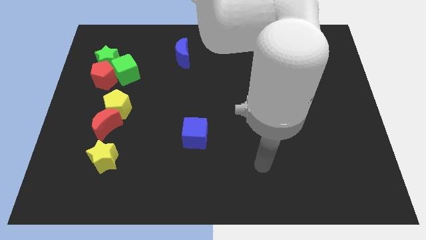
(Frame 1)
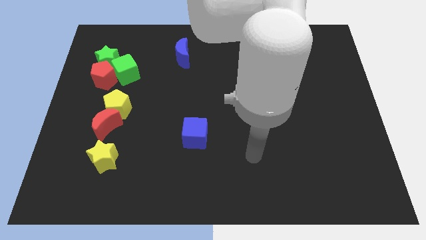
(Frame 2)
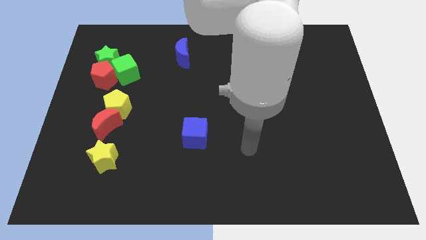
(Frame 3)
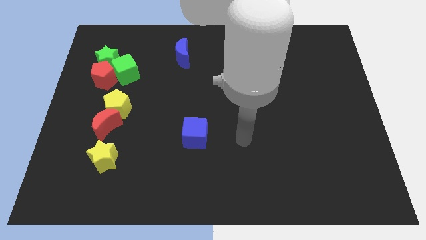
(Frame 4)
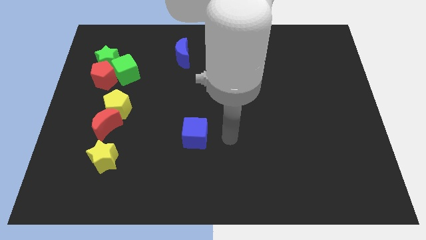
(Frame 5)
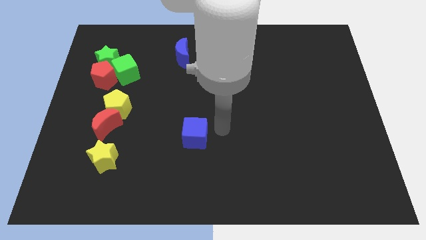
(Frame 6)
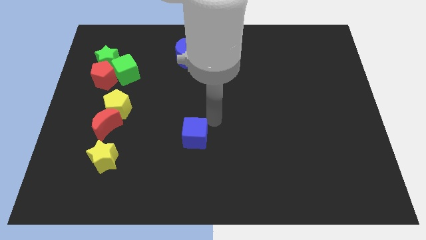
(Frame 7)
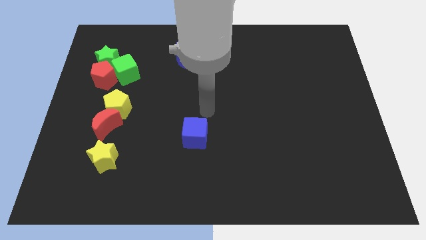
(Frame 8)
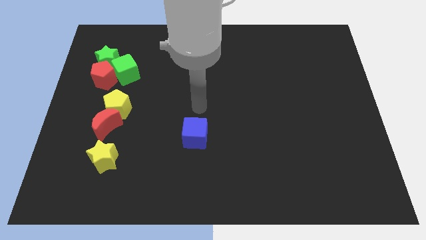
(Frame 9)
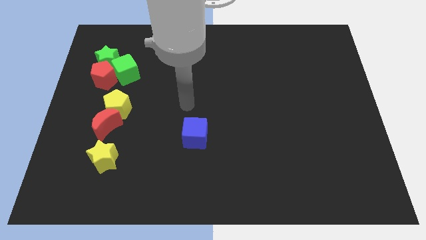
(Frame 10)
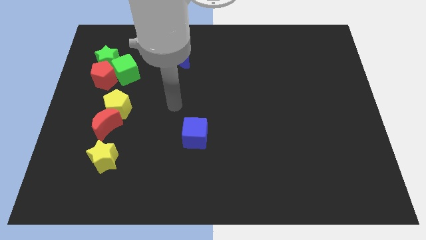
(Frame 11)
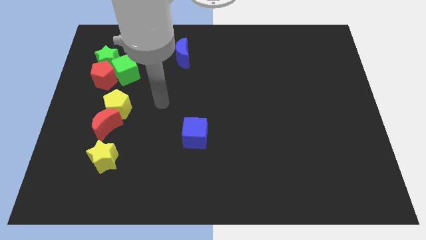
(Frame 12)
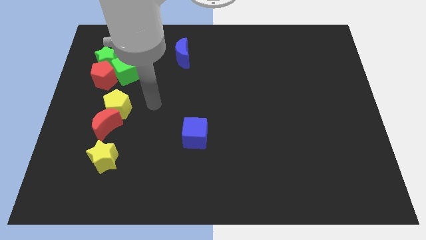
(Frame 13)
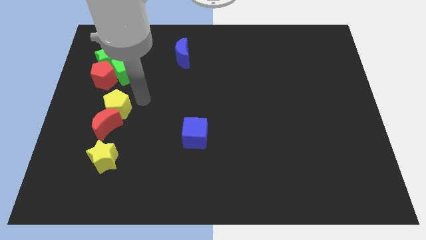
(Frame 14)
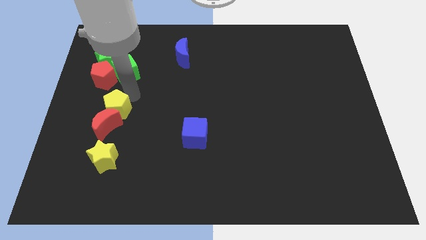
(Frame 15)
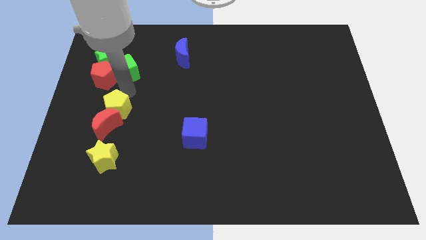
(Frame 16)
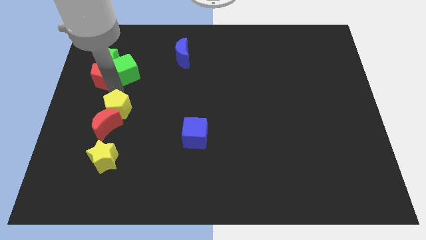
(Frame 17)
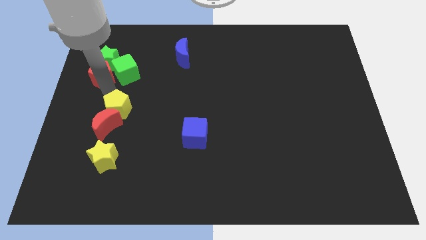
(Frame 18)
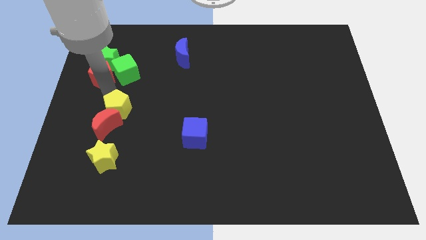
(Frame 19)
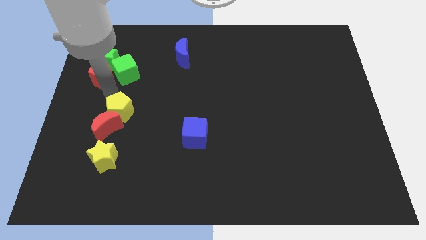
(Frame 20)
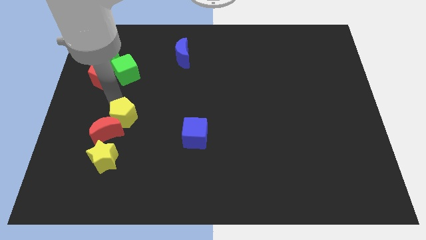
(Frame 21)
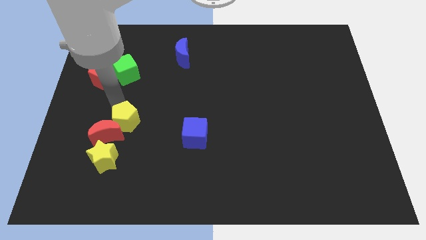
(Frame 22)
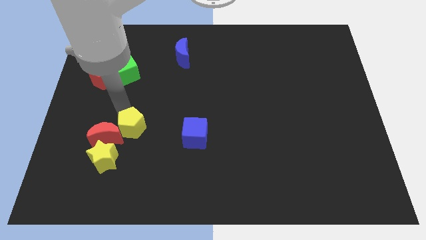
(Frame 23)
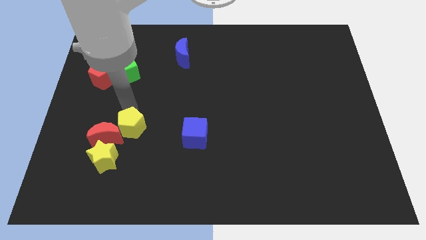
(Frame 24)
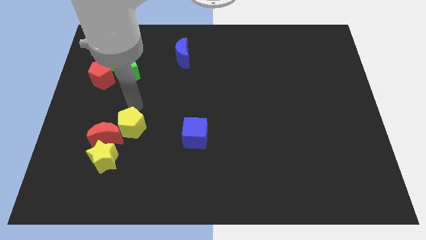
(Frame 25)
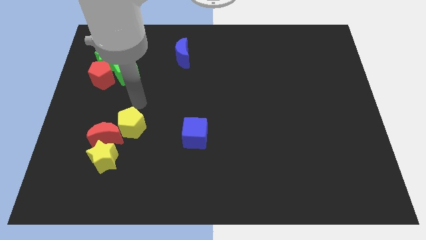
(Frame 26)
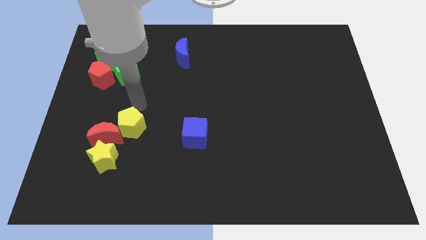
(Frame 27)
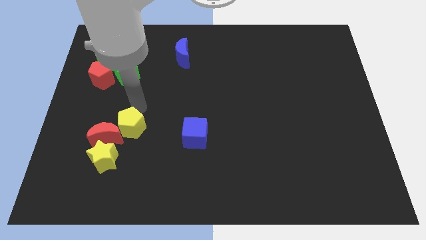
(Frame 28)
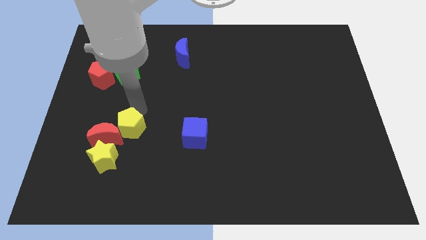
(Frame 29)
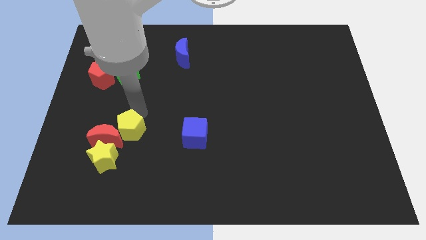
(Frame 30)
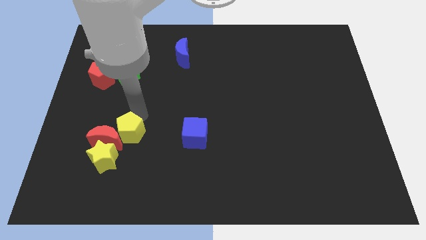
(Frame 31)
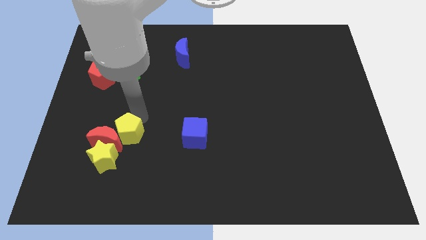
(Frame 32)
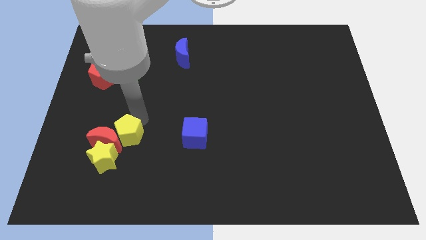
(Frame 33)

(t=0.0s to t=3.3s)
move the yellow pentagon downwards a little

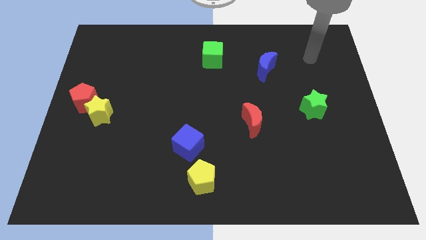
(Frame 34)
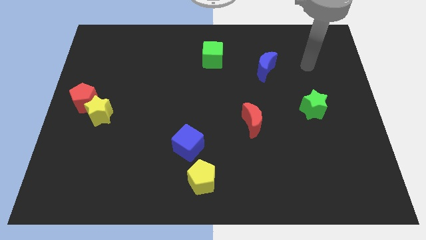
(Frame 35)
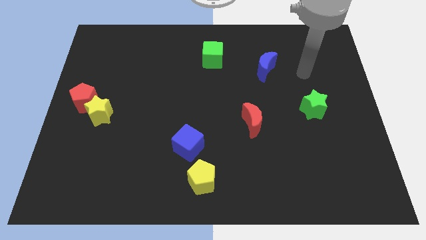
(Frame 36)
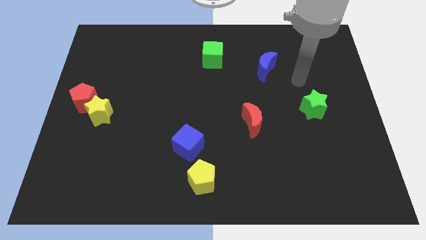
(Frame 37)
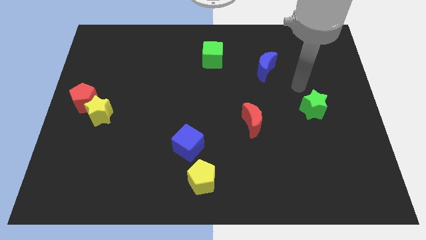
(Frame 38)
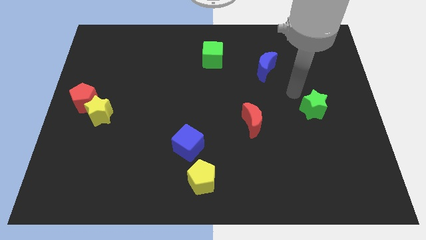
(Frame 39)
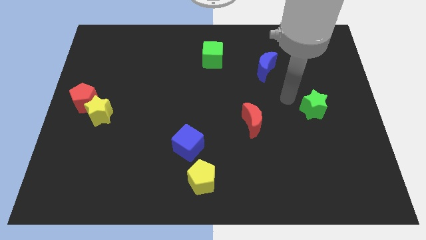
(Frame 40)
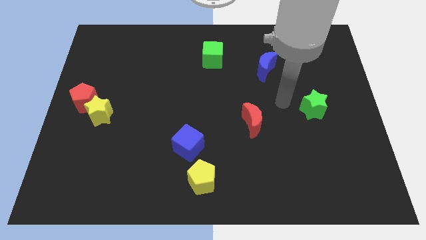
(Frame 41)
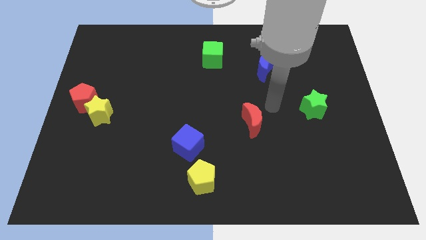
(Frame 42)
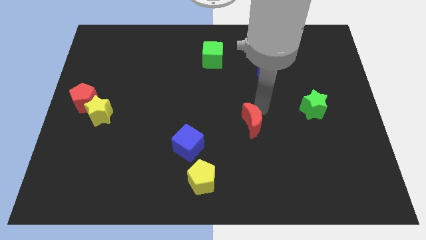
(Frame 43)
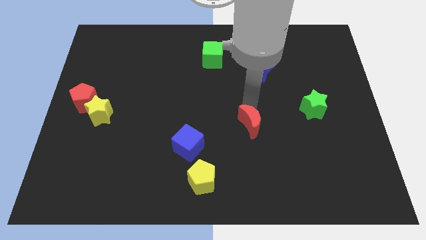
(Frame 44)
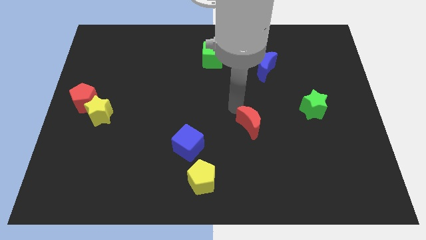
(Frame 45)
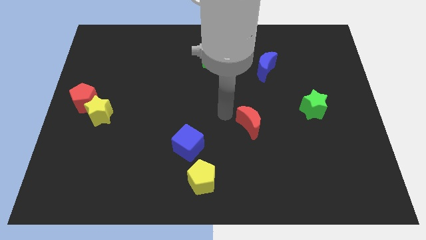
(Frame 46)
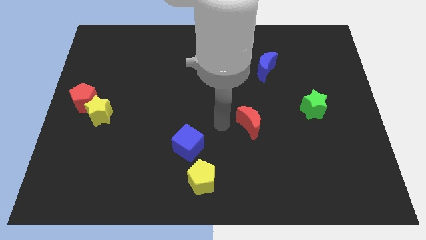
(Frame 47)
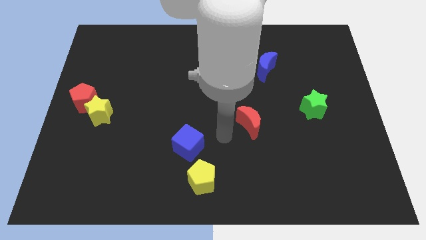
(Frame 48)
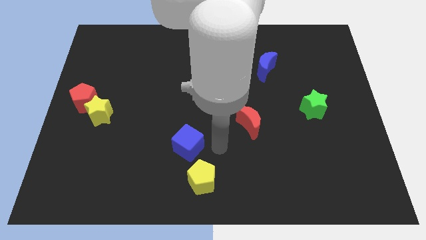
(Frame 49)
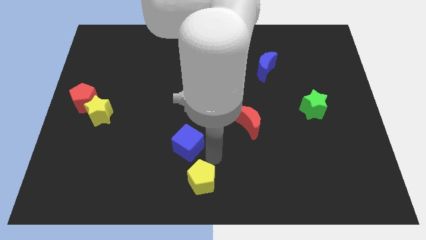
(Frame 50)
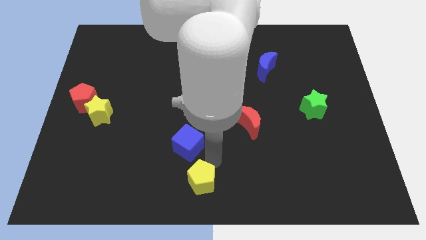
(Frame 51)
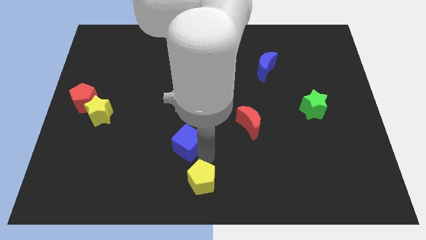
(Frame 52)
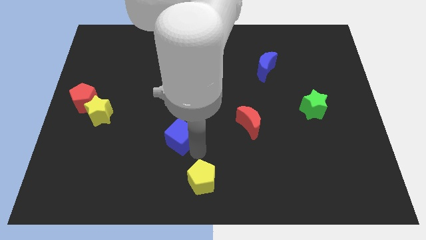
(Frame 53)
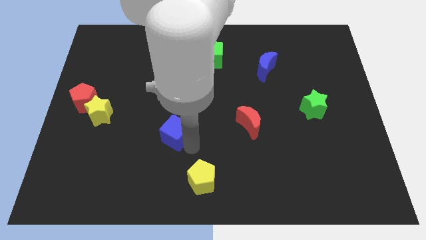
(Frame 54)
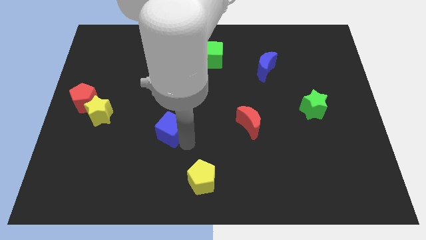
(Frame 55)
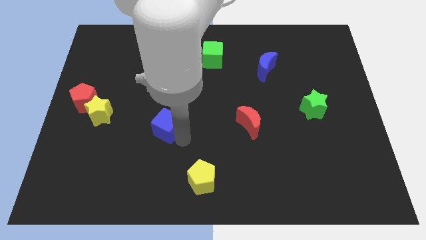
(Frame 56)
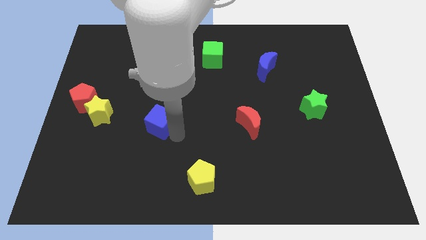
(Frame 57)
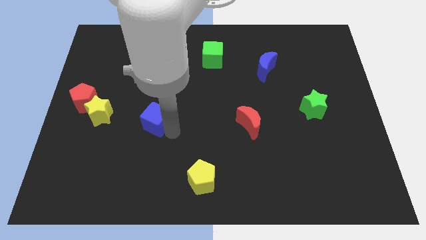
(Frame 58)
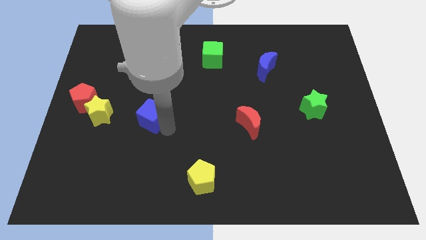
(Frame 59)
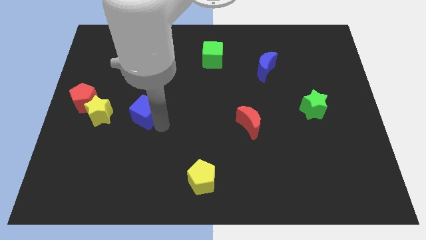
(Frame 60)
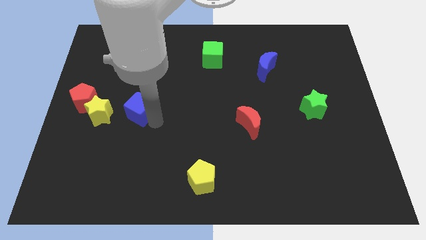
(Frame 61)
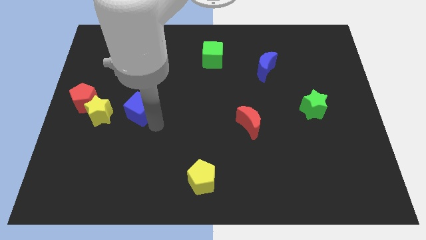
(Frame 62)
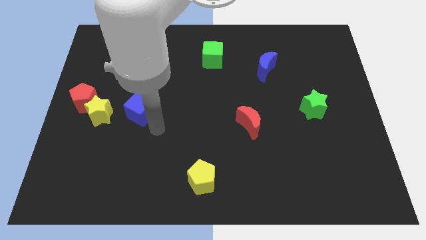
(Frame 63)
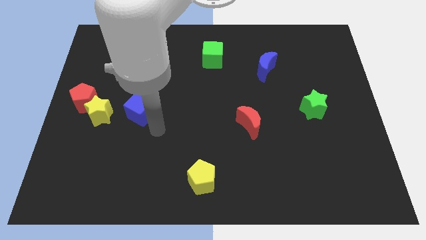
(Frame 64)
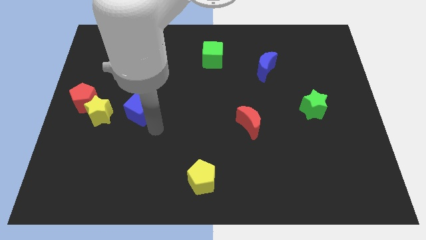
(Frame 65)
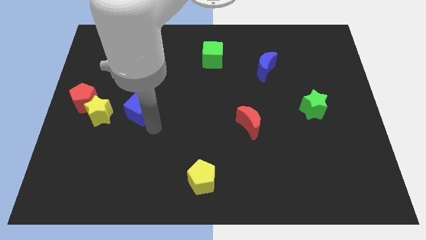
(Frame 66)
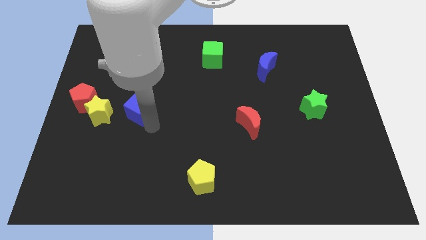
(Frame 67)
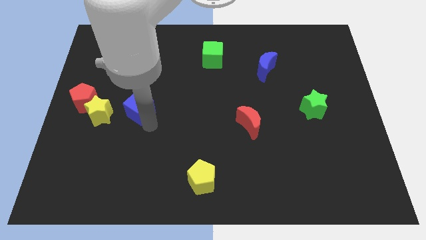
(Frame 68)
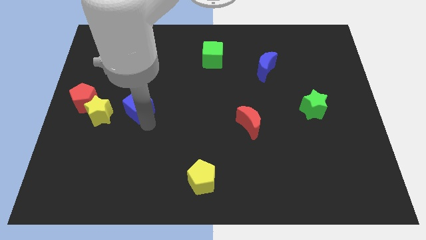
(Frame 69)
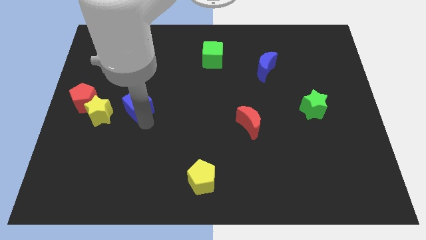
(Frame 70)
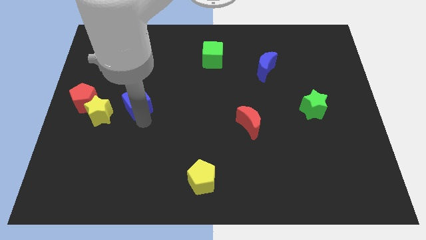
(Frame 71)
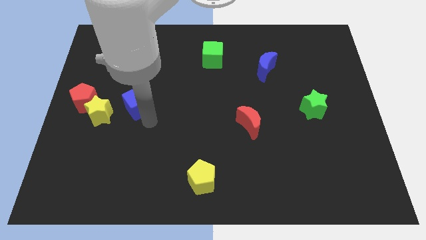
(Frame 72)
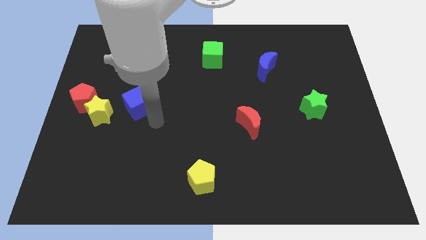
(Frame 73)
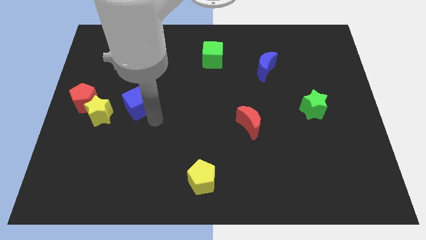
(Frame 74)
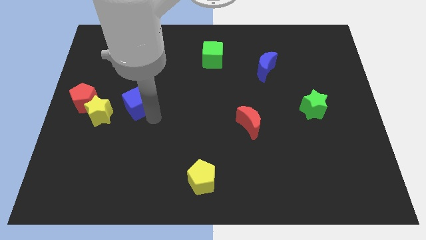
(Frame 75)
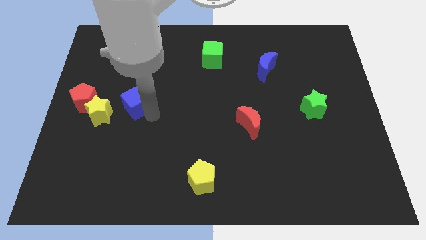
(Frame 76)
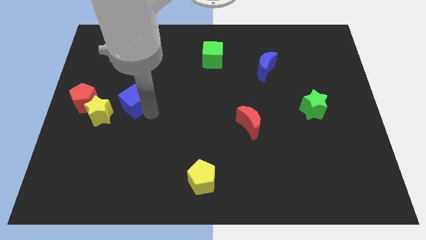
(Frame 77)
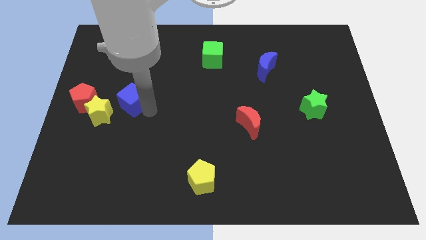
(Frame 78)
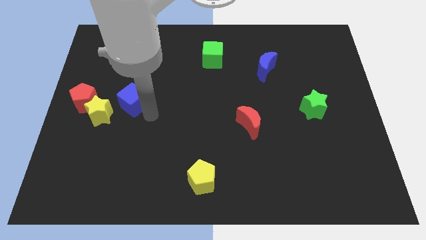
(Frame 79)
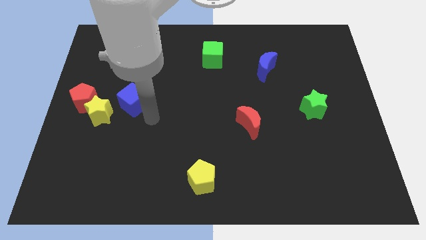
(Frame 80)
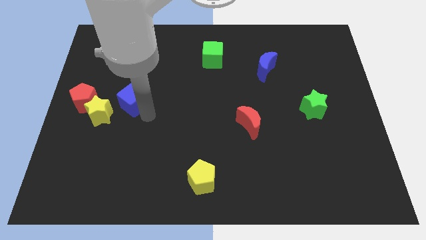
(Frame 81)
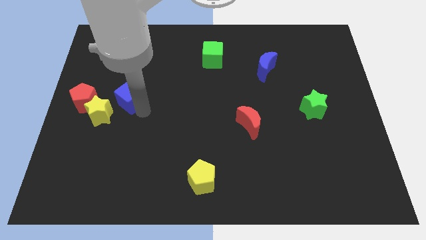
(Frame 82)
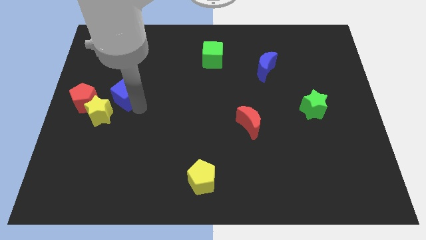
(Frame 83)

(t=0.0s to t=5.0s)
slide the blue cube up and then left
